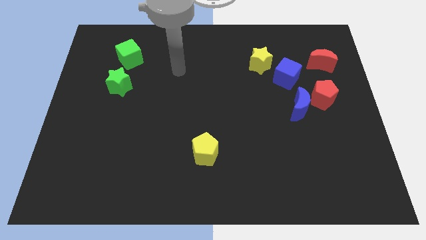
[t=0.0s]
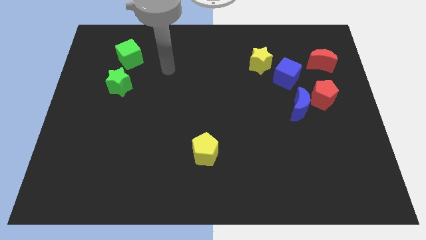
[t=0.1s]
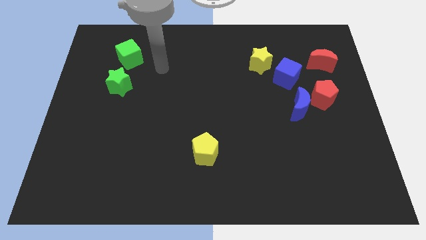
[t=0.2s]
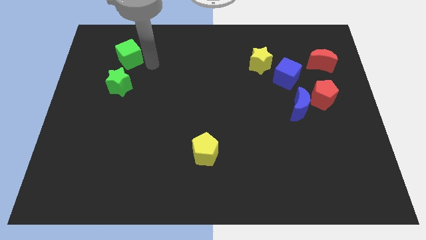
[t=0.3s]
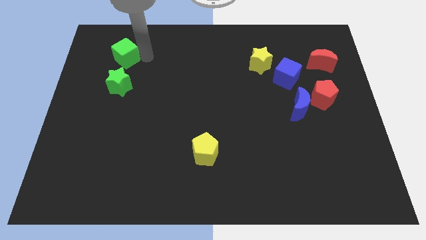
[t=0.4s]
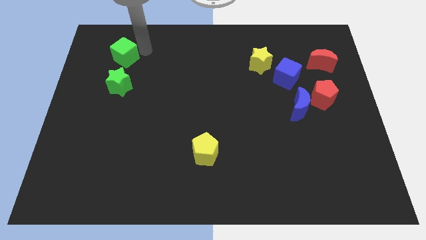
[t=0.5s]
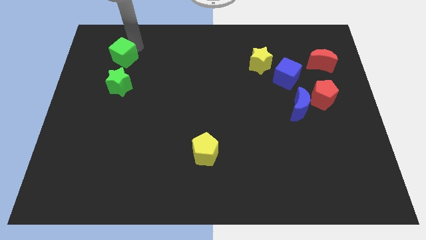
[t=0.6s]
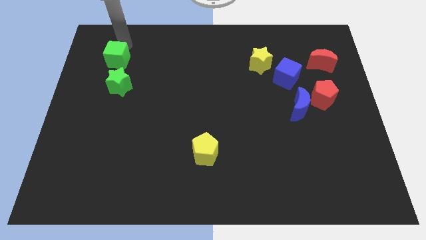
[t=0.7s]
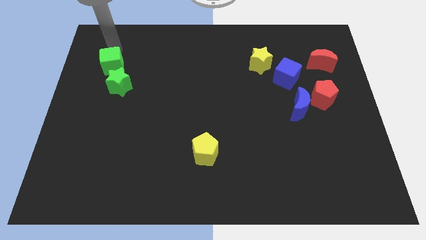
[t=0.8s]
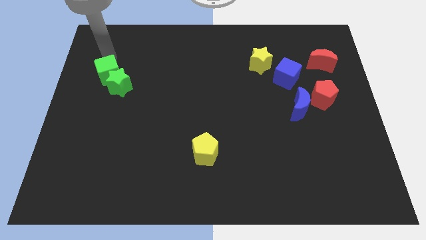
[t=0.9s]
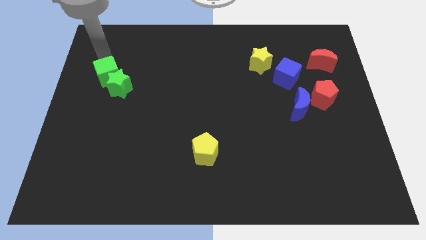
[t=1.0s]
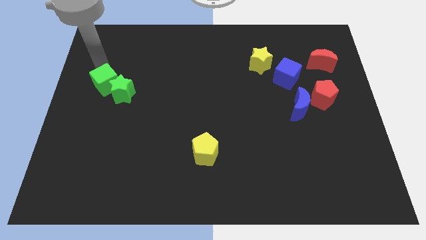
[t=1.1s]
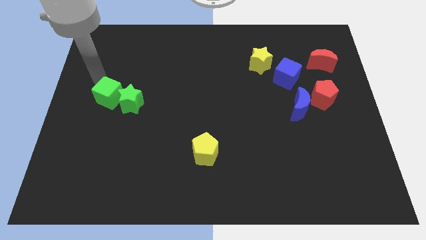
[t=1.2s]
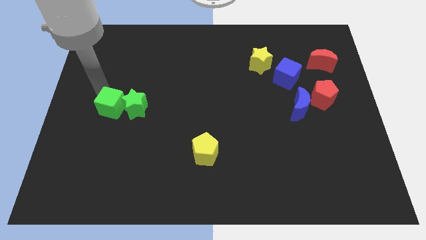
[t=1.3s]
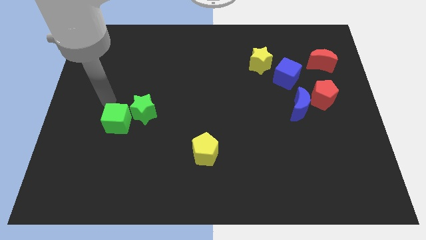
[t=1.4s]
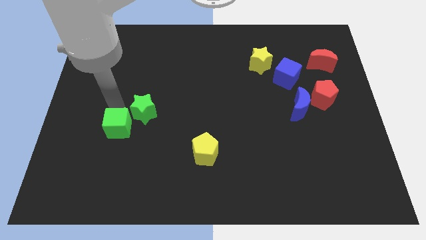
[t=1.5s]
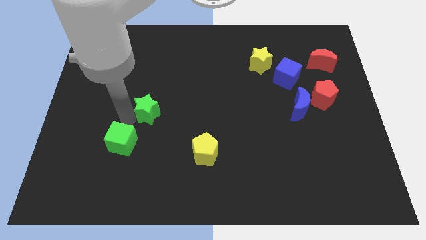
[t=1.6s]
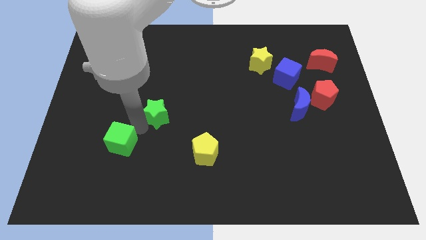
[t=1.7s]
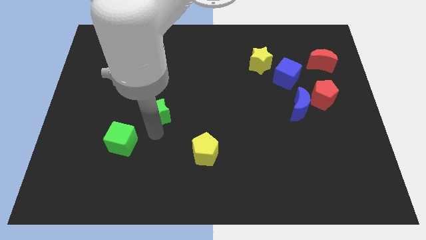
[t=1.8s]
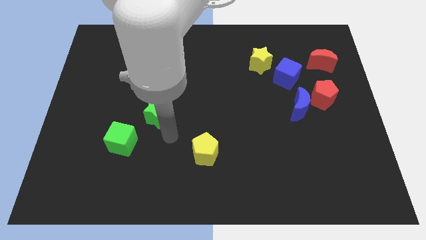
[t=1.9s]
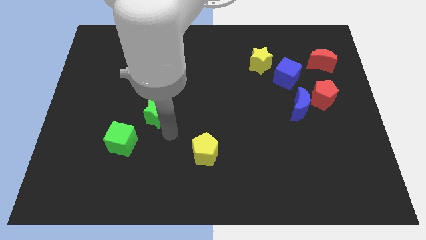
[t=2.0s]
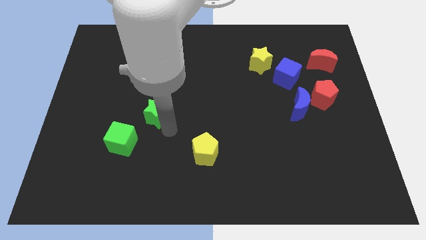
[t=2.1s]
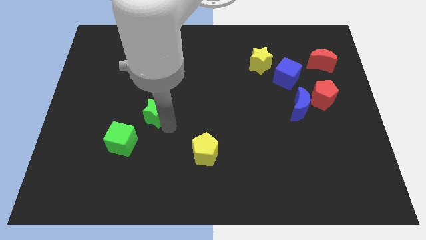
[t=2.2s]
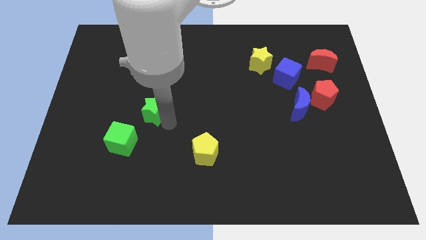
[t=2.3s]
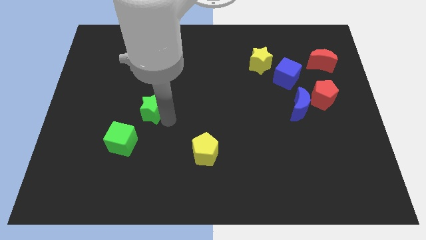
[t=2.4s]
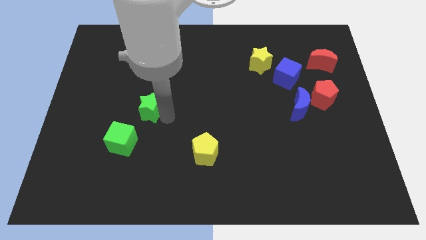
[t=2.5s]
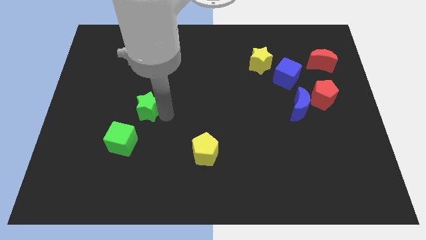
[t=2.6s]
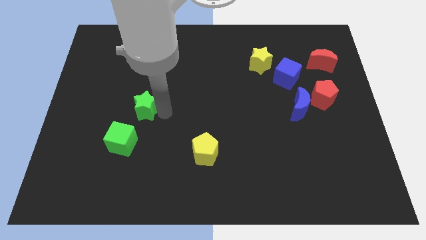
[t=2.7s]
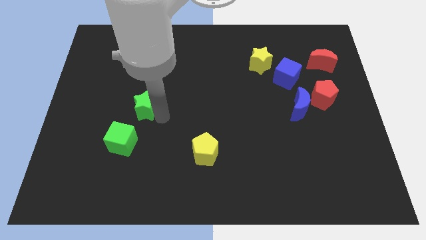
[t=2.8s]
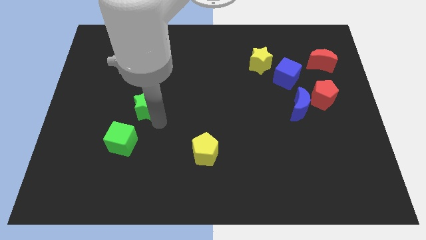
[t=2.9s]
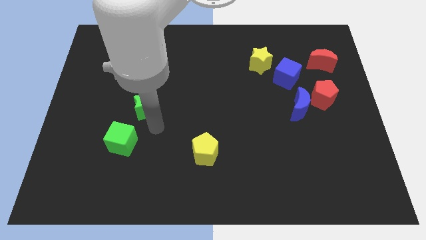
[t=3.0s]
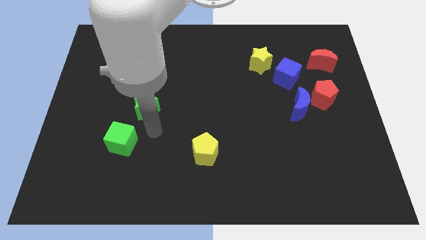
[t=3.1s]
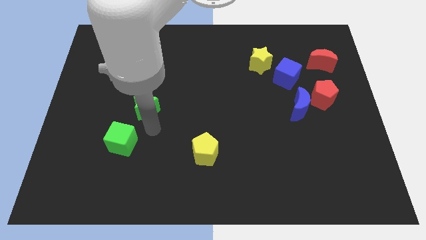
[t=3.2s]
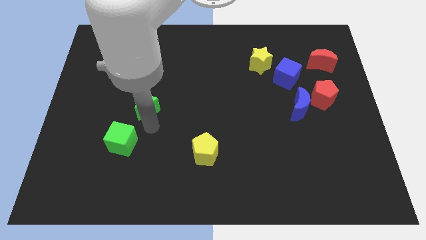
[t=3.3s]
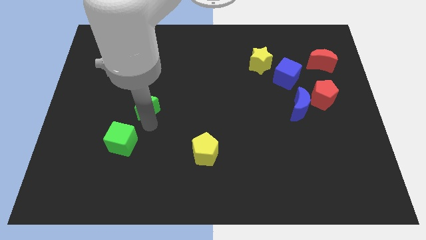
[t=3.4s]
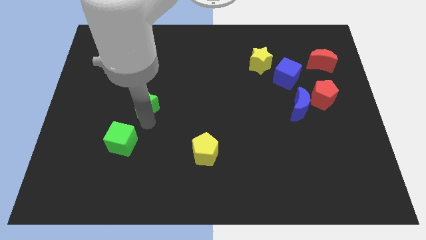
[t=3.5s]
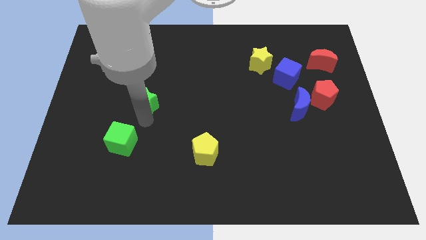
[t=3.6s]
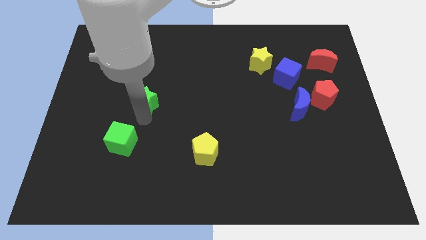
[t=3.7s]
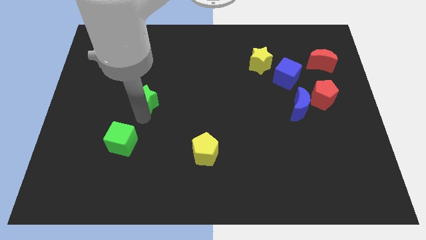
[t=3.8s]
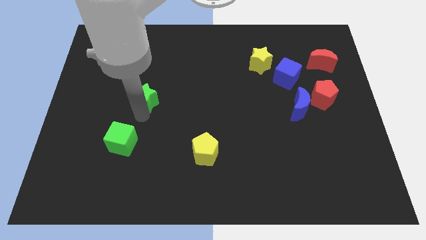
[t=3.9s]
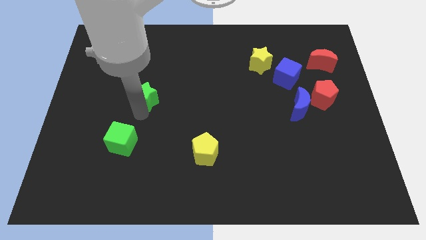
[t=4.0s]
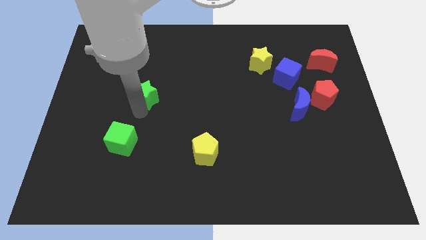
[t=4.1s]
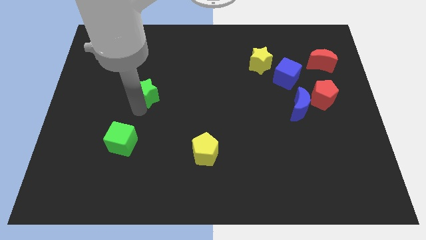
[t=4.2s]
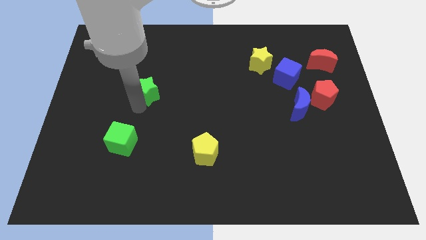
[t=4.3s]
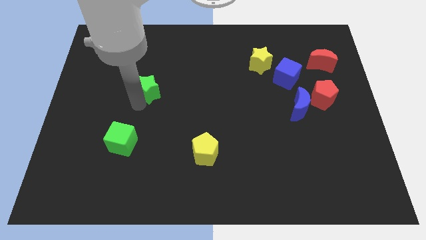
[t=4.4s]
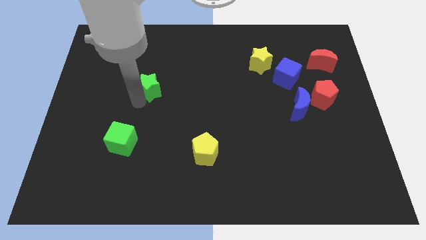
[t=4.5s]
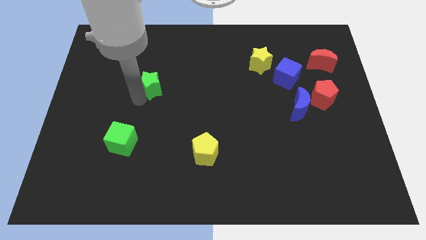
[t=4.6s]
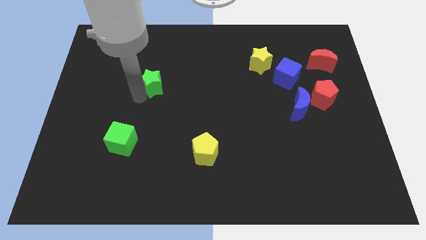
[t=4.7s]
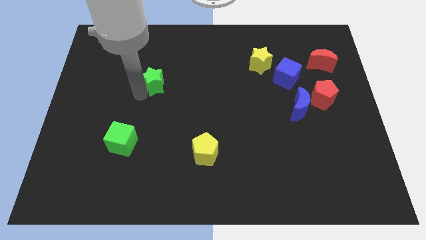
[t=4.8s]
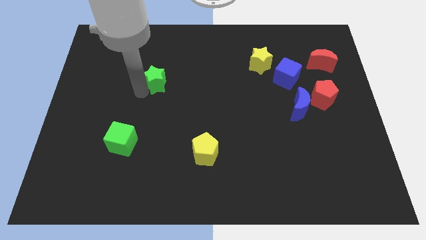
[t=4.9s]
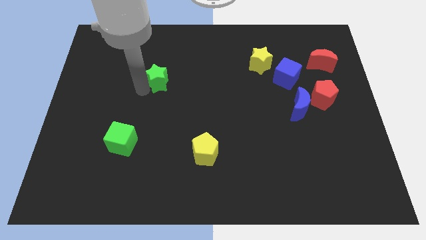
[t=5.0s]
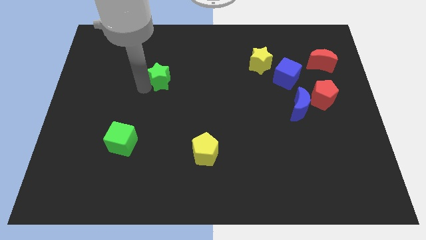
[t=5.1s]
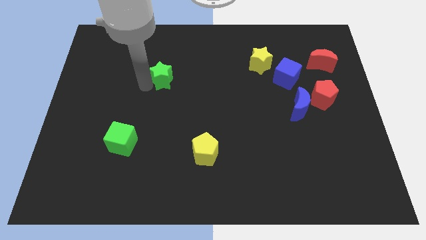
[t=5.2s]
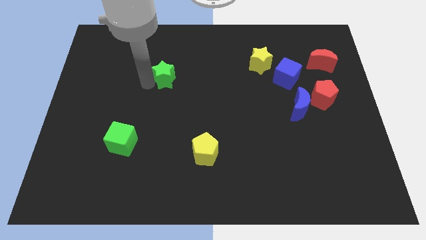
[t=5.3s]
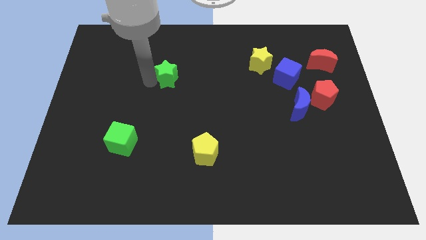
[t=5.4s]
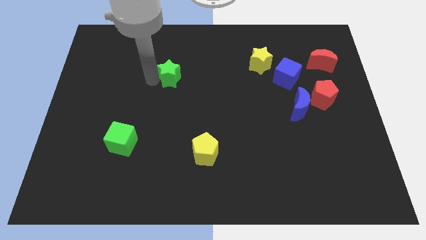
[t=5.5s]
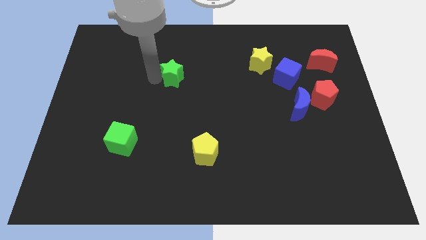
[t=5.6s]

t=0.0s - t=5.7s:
put the green star to the middle

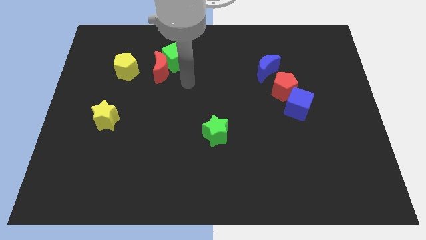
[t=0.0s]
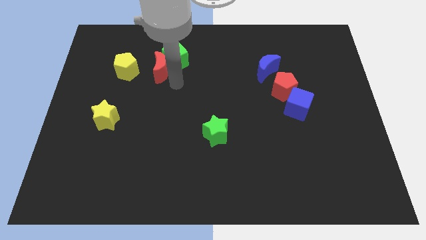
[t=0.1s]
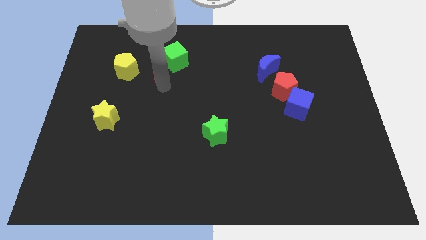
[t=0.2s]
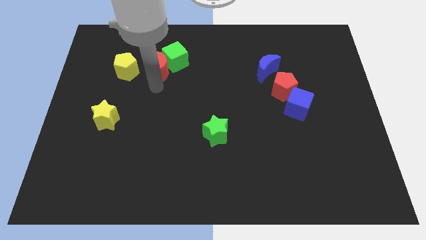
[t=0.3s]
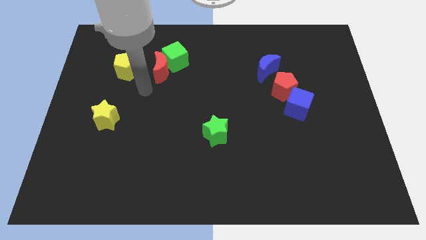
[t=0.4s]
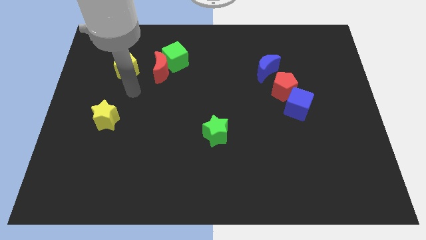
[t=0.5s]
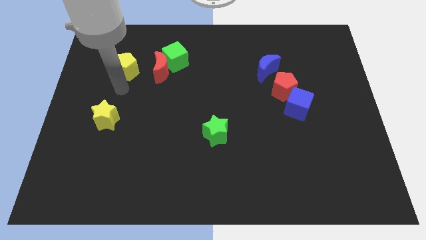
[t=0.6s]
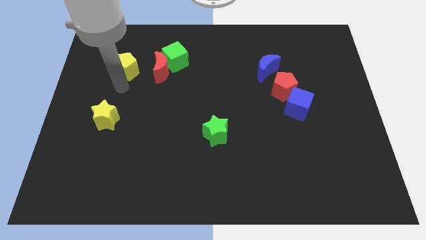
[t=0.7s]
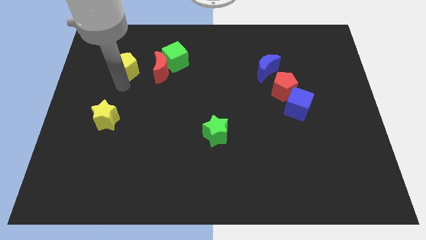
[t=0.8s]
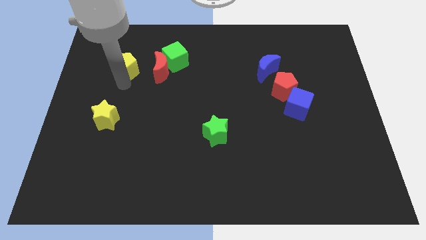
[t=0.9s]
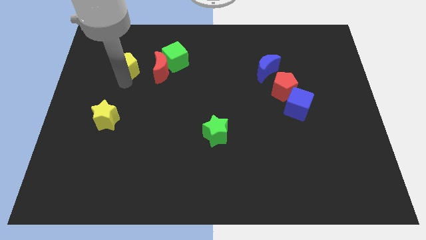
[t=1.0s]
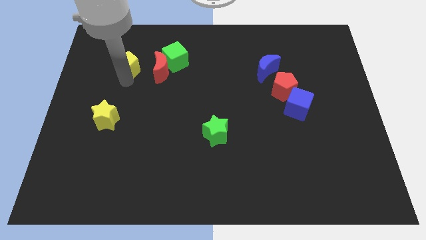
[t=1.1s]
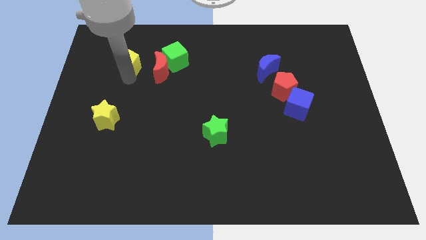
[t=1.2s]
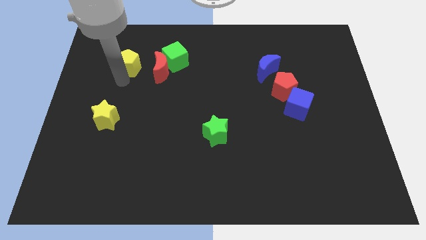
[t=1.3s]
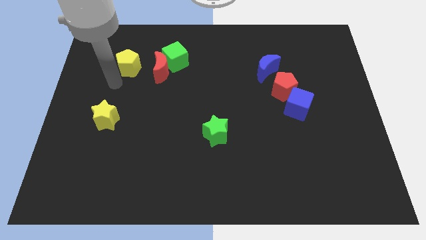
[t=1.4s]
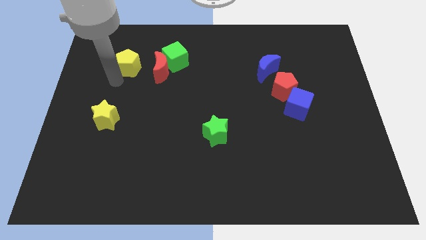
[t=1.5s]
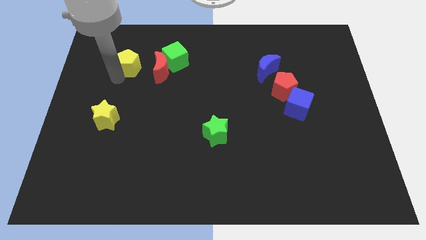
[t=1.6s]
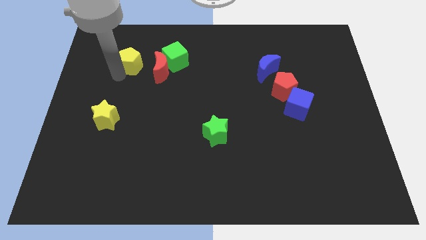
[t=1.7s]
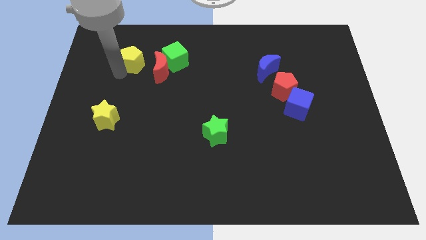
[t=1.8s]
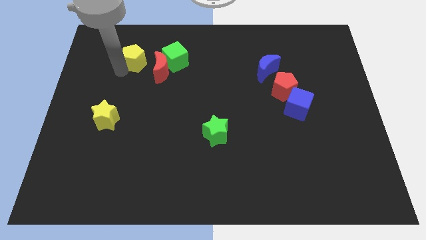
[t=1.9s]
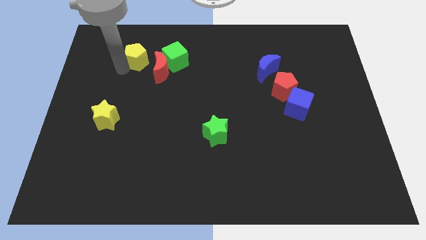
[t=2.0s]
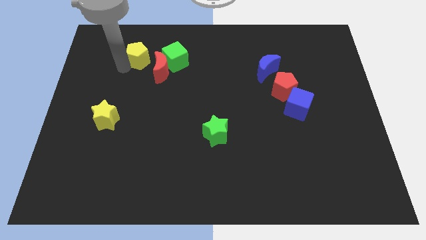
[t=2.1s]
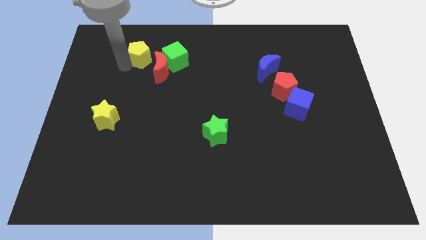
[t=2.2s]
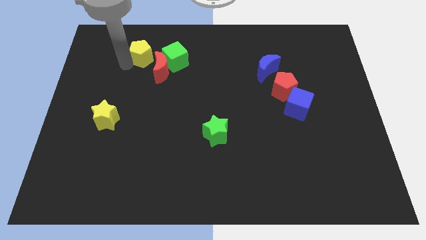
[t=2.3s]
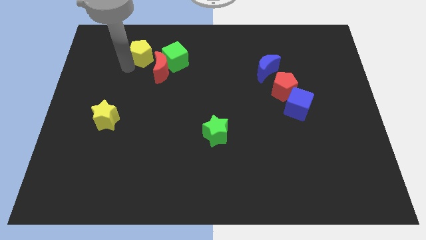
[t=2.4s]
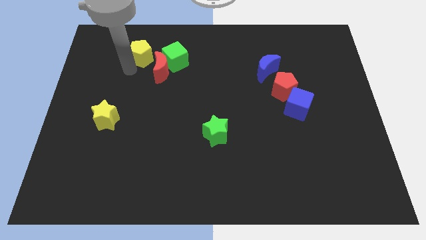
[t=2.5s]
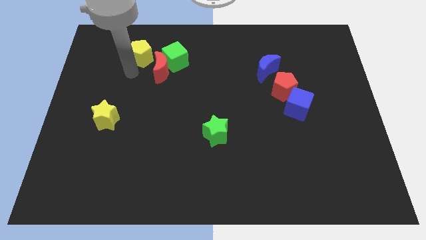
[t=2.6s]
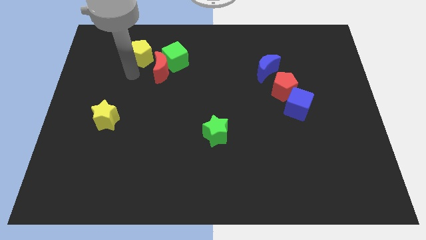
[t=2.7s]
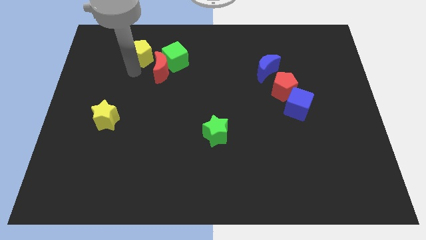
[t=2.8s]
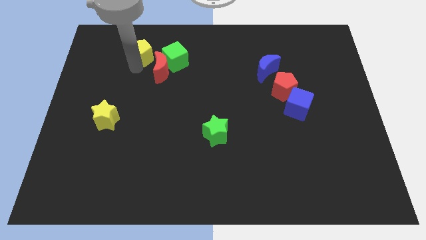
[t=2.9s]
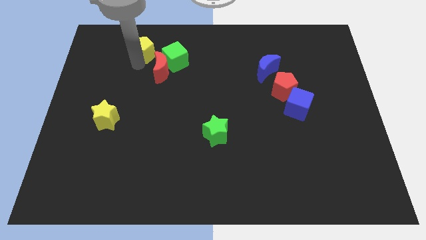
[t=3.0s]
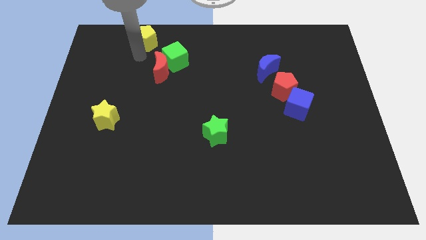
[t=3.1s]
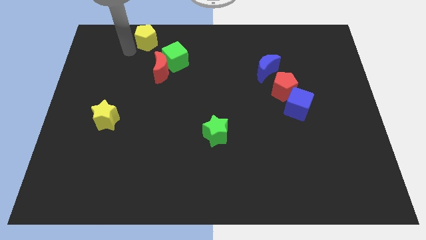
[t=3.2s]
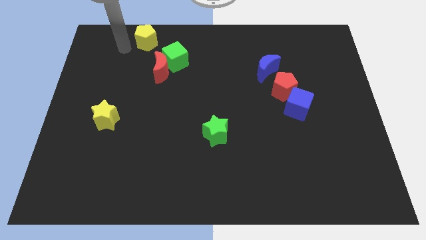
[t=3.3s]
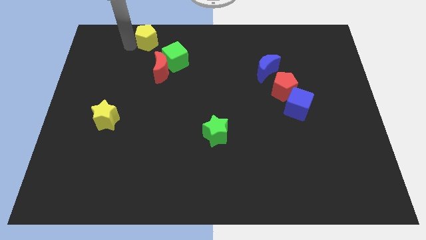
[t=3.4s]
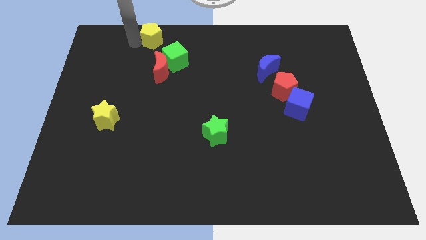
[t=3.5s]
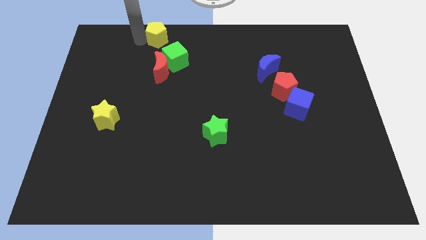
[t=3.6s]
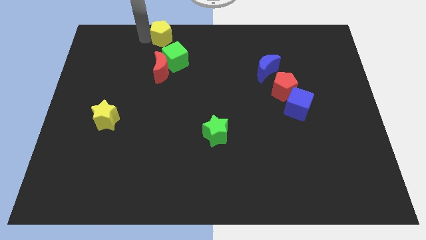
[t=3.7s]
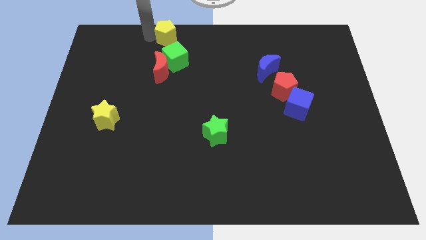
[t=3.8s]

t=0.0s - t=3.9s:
push the yellow pentagon to the towards your base
